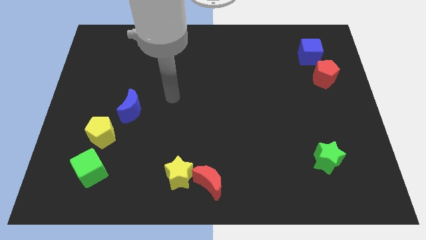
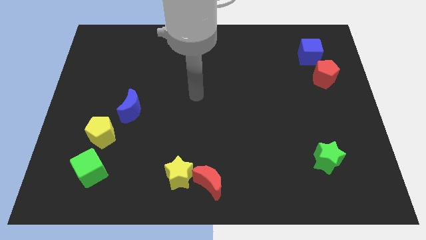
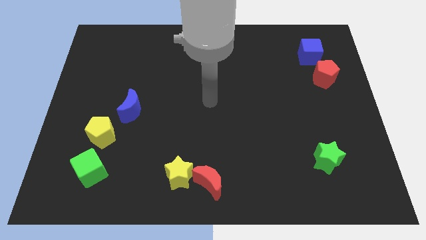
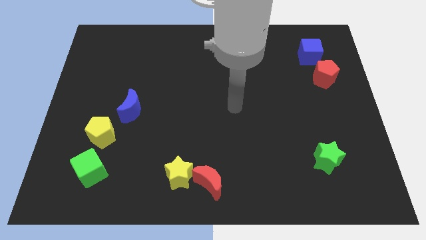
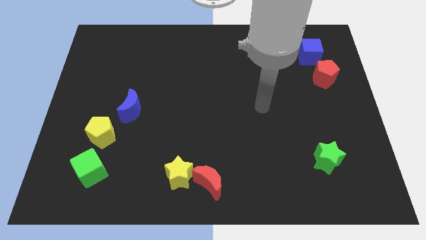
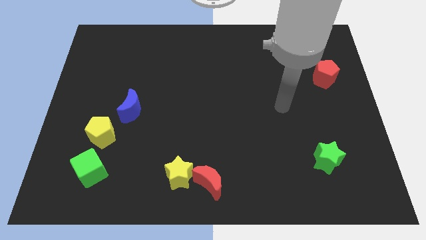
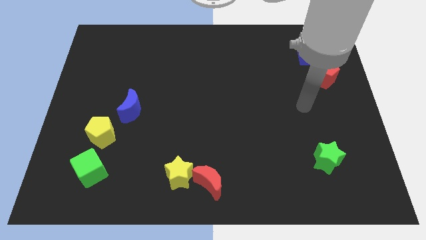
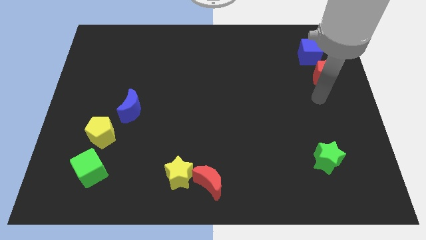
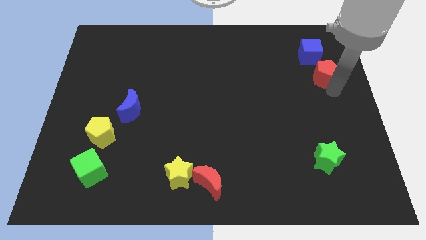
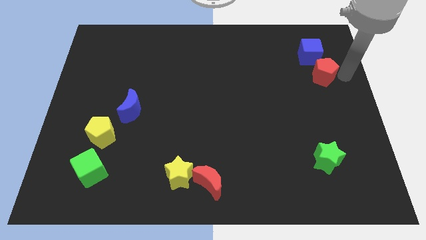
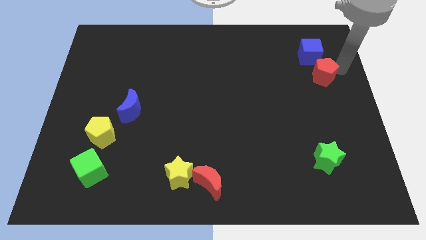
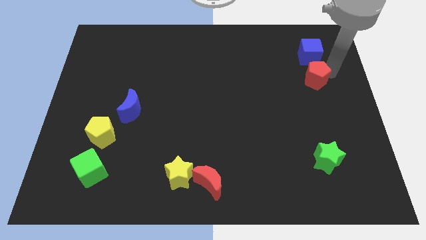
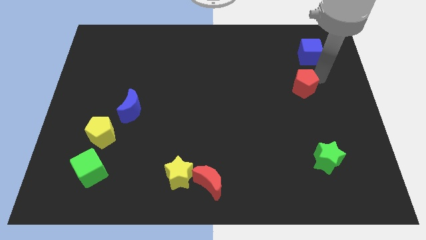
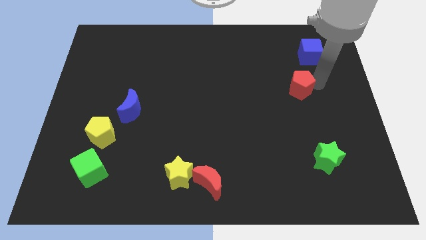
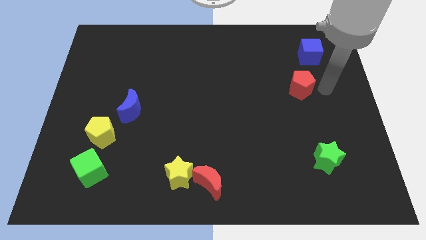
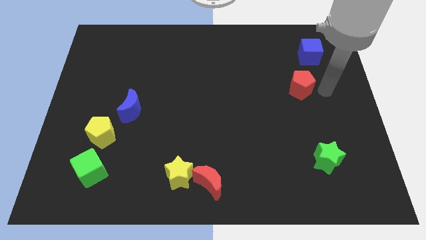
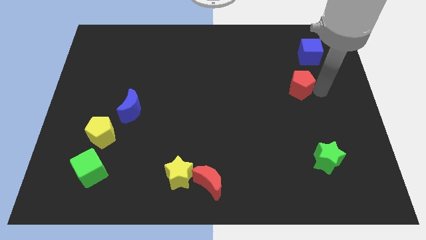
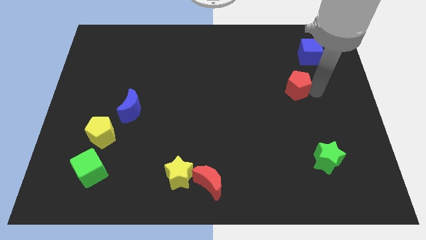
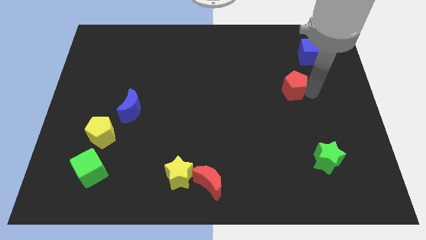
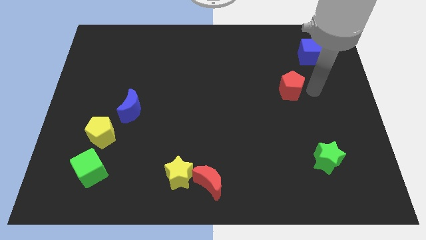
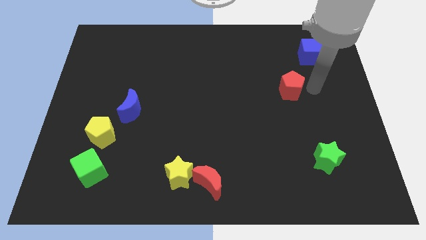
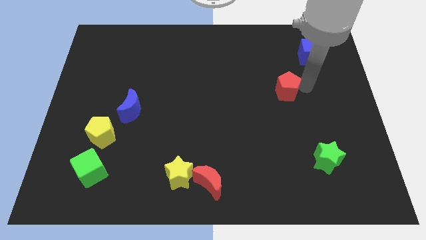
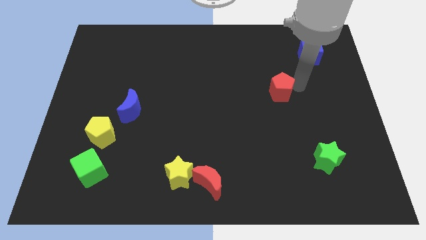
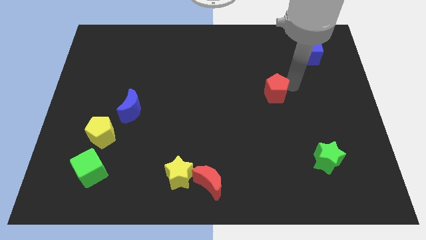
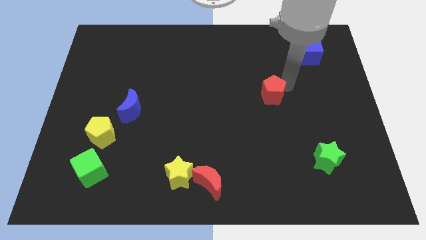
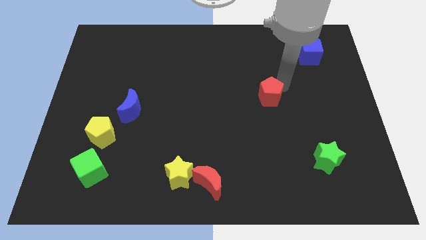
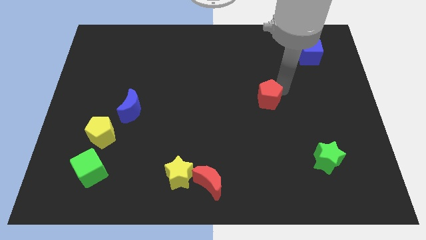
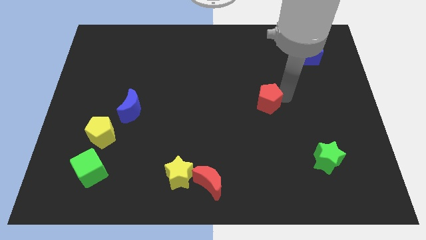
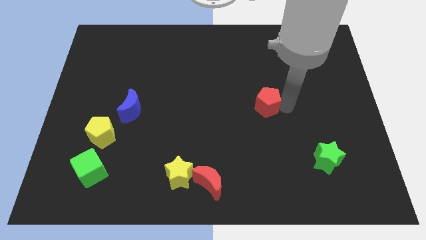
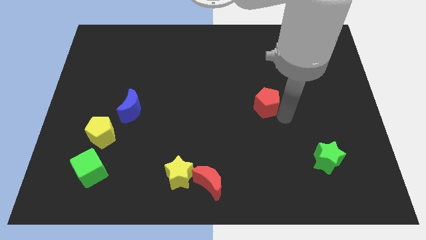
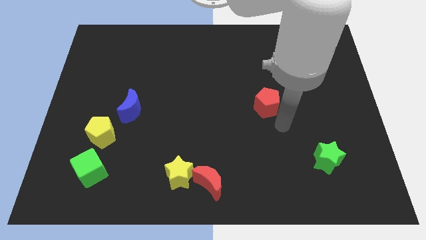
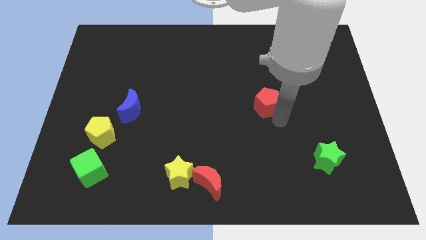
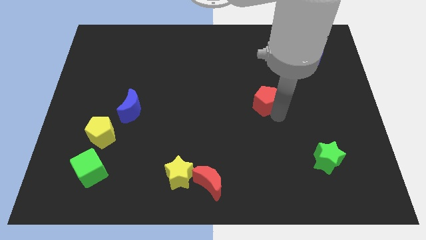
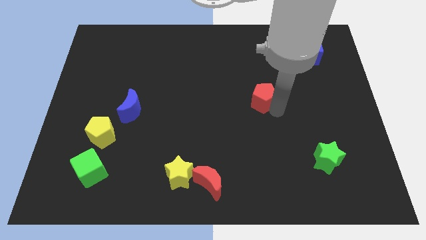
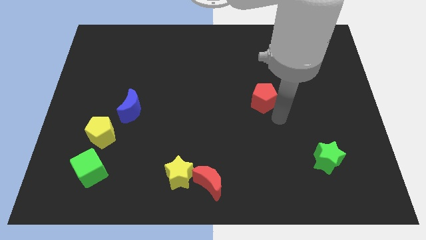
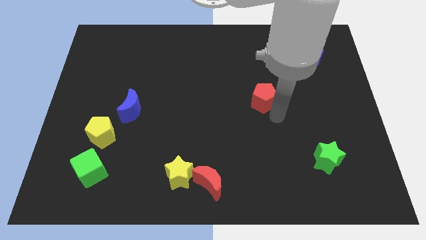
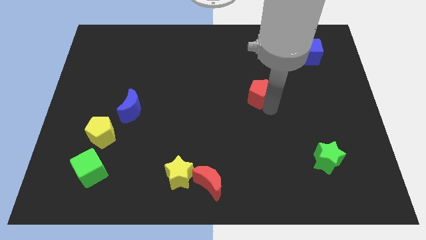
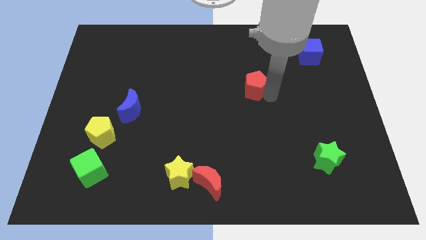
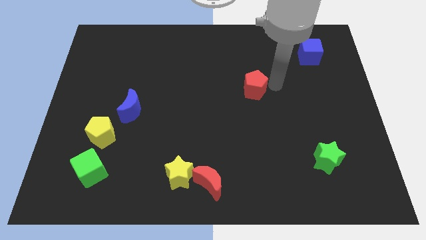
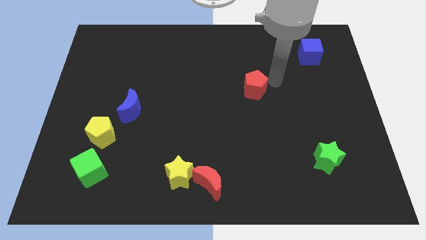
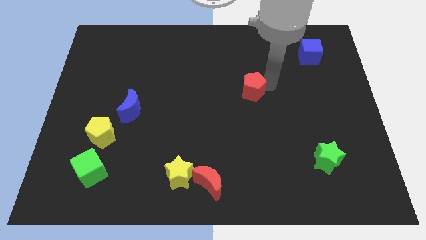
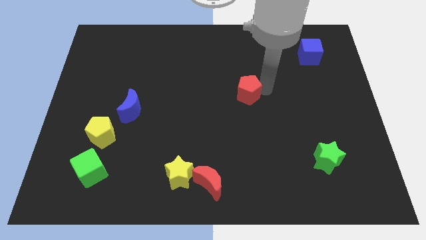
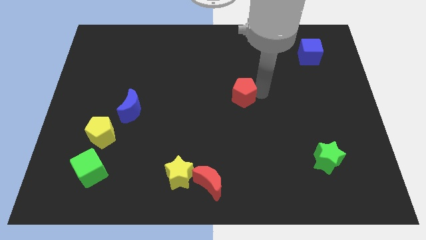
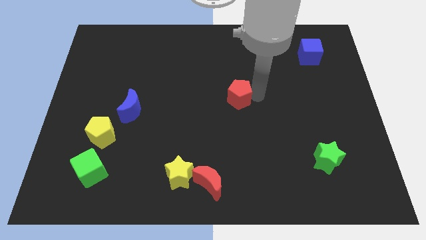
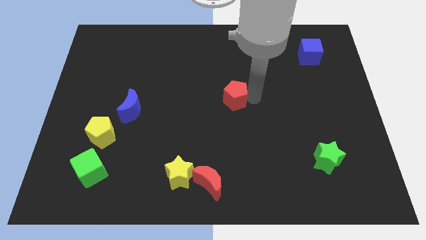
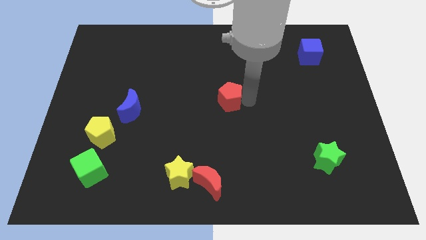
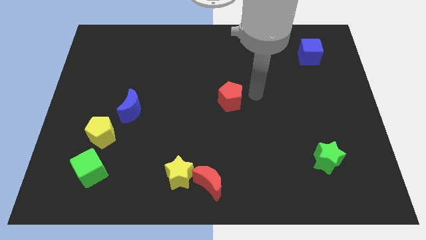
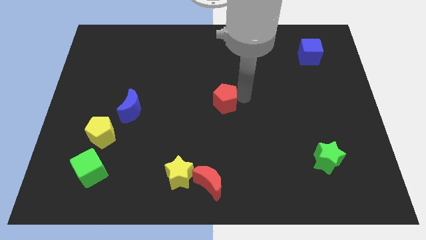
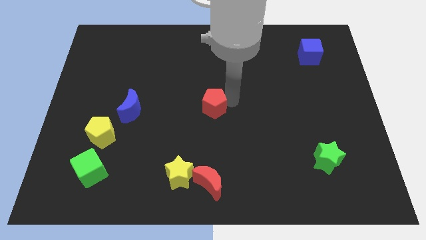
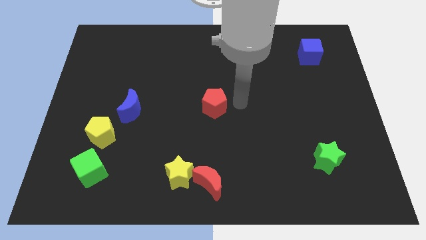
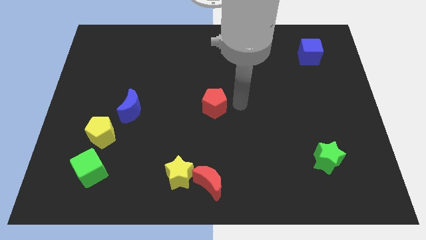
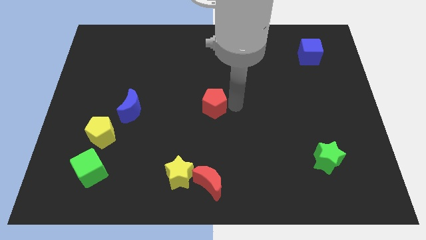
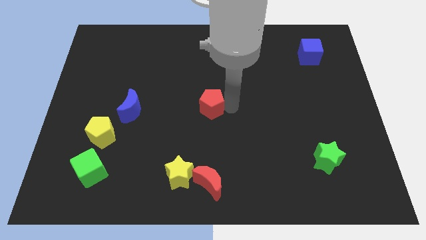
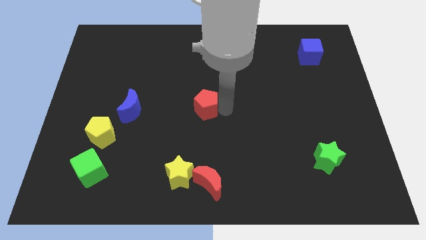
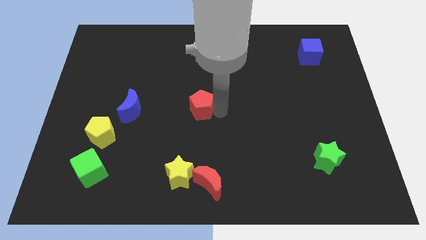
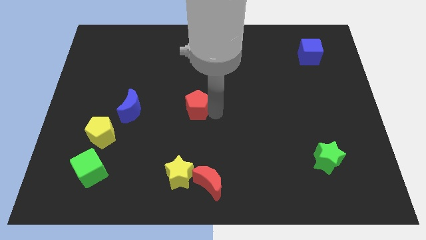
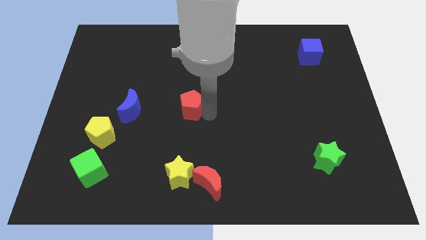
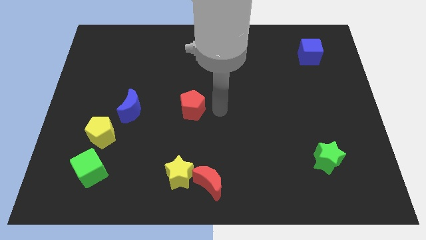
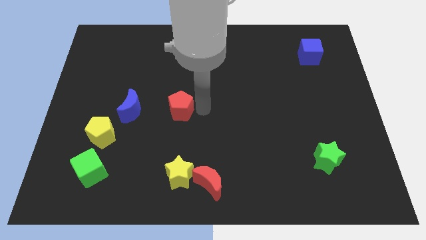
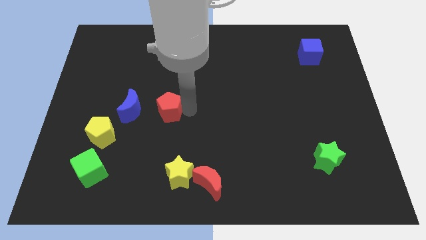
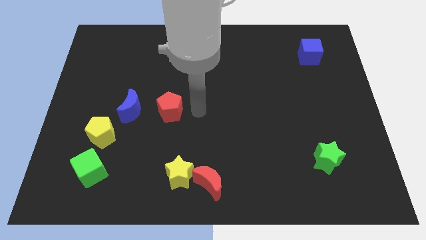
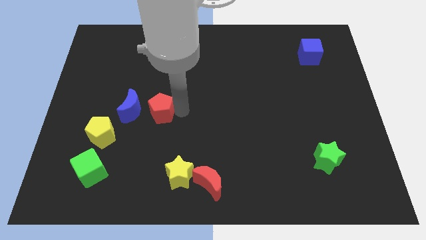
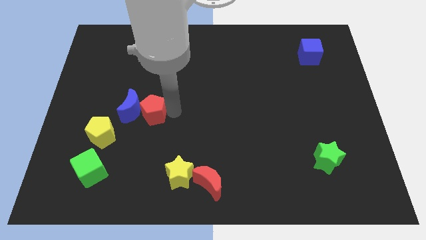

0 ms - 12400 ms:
slide the red pentagon close to the blue moon
